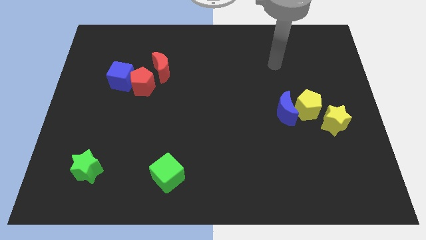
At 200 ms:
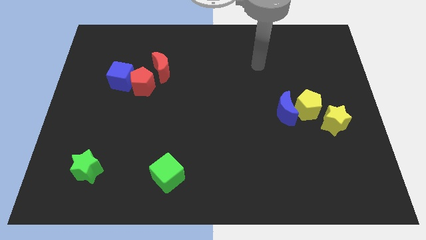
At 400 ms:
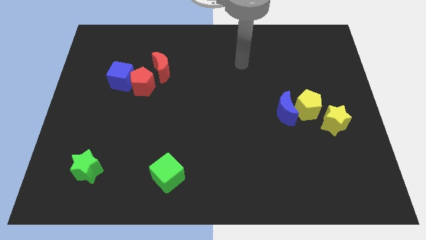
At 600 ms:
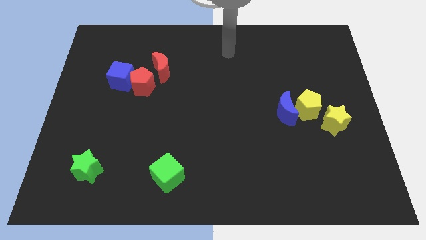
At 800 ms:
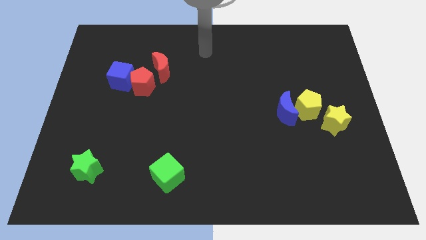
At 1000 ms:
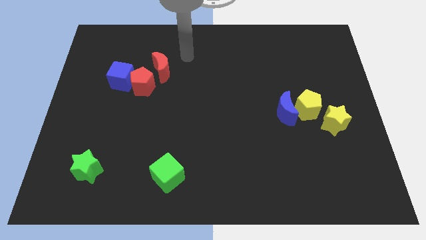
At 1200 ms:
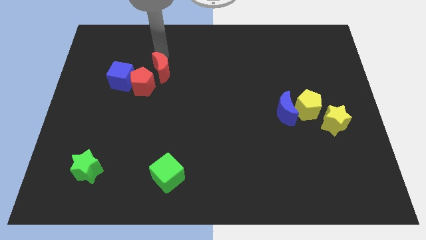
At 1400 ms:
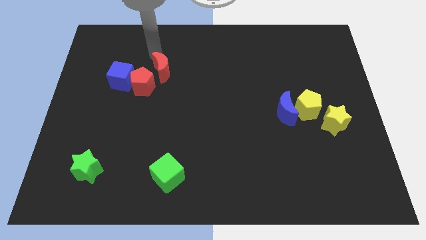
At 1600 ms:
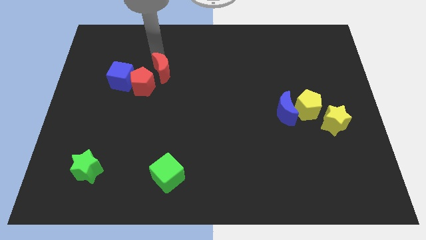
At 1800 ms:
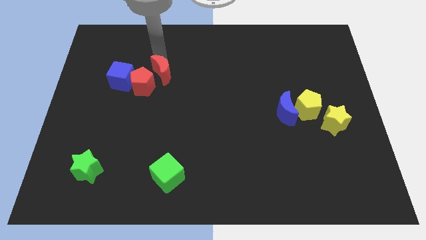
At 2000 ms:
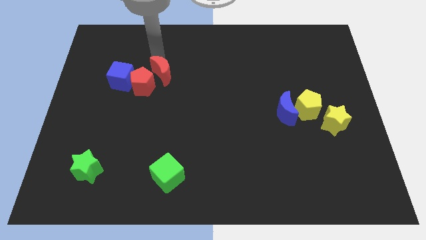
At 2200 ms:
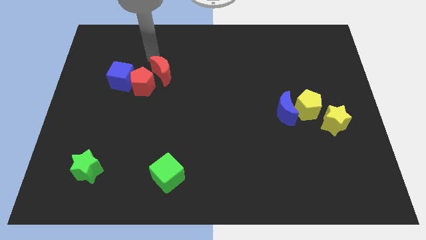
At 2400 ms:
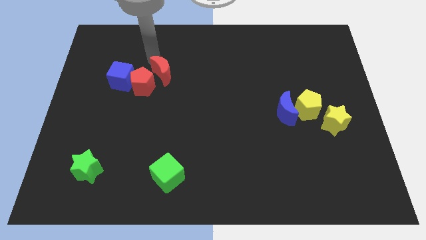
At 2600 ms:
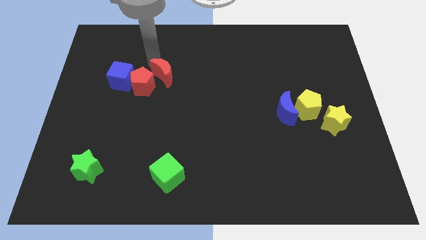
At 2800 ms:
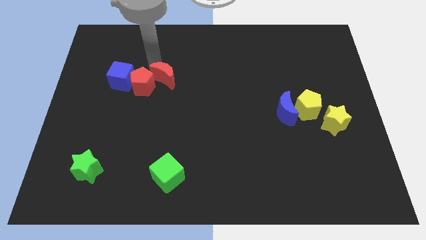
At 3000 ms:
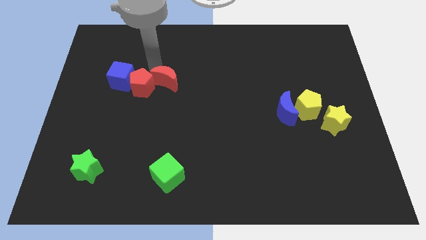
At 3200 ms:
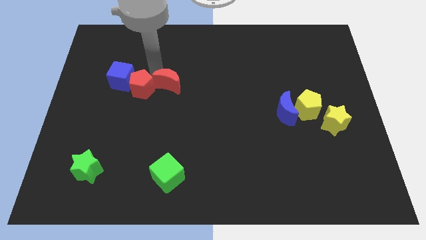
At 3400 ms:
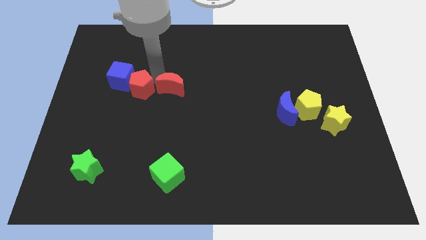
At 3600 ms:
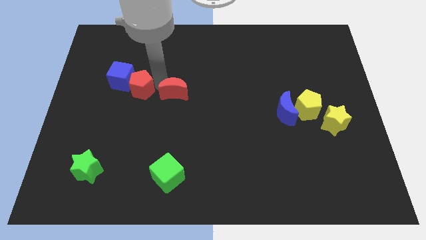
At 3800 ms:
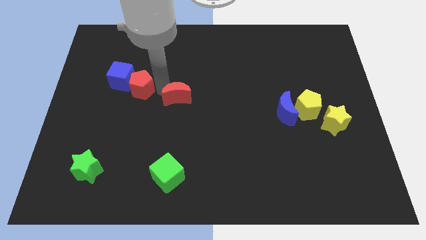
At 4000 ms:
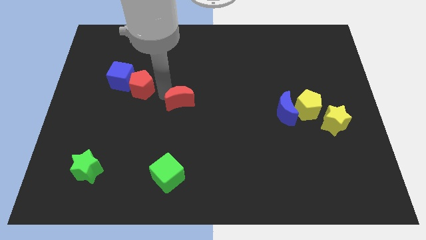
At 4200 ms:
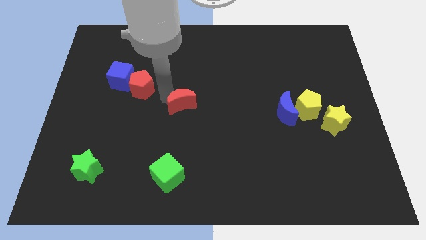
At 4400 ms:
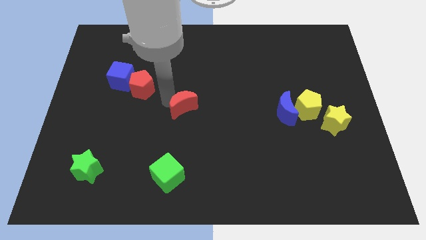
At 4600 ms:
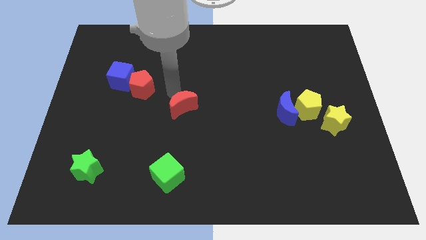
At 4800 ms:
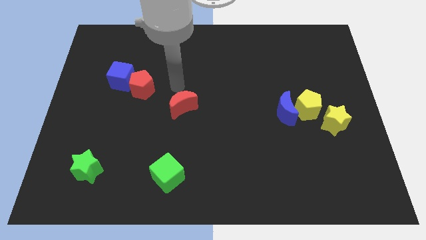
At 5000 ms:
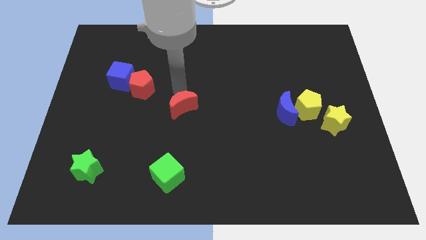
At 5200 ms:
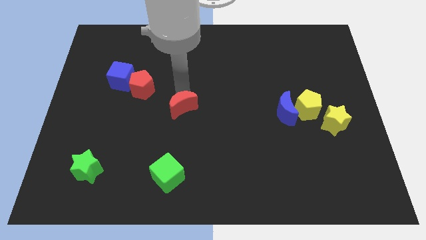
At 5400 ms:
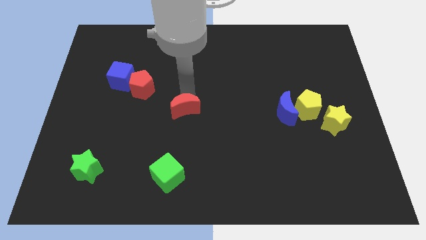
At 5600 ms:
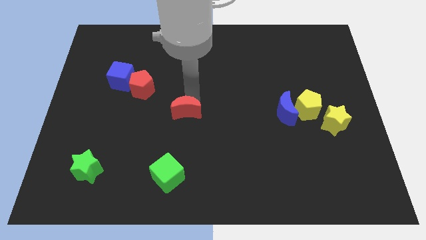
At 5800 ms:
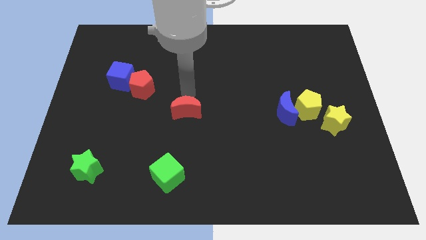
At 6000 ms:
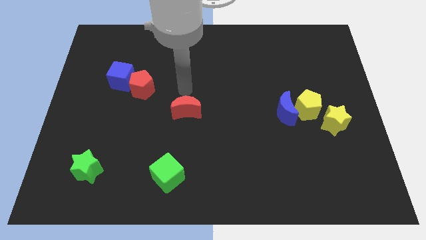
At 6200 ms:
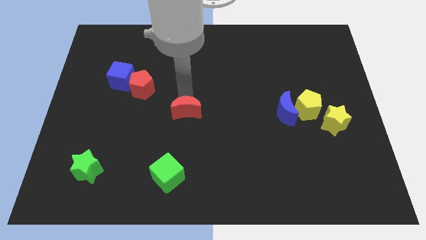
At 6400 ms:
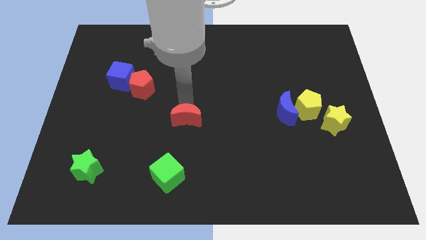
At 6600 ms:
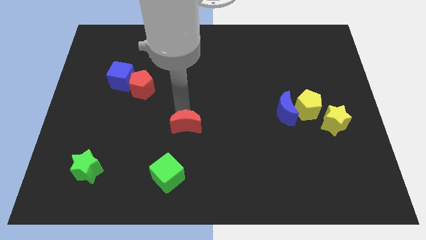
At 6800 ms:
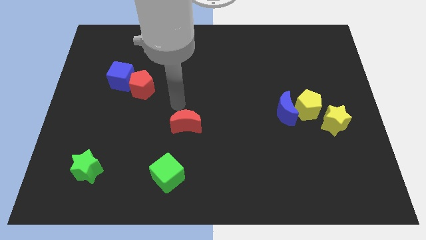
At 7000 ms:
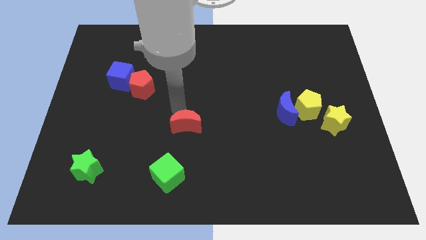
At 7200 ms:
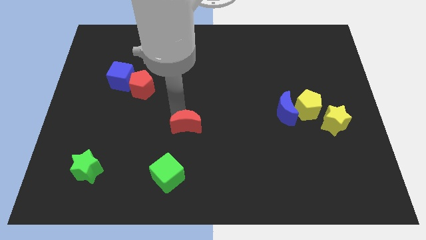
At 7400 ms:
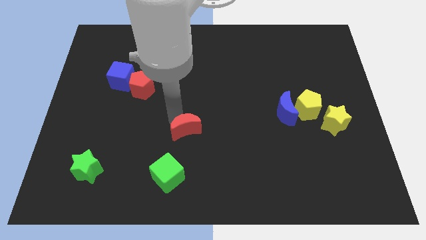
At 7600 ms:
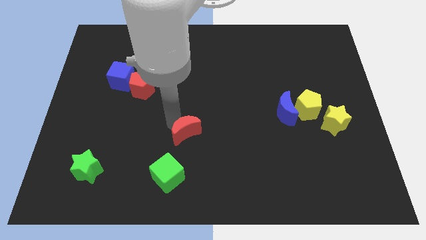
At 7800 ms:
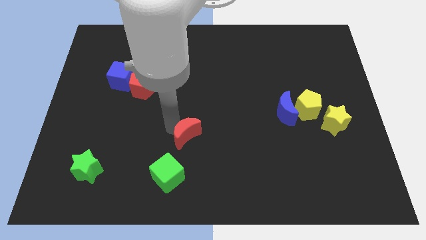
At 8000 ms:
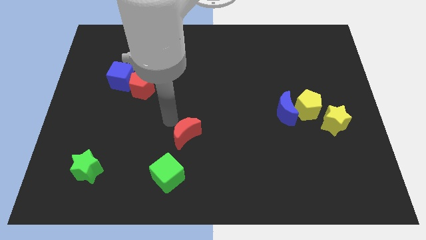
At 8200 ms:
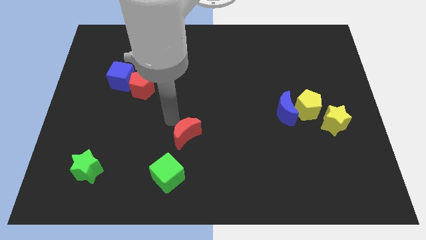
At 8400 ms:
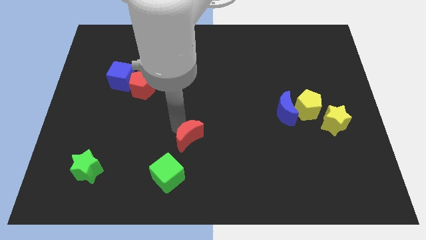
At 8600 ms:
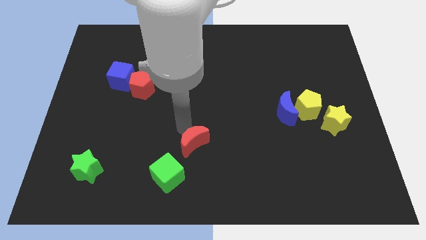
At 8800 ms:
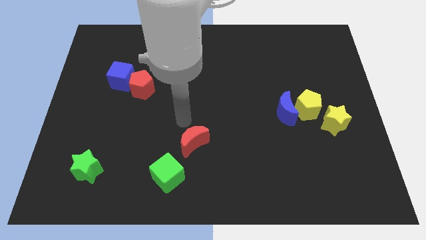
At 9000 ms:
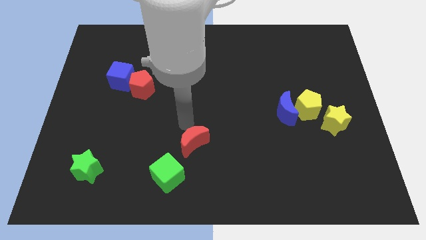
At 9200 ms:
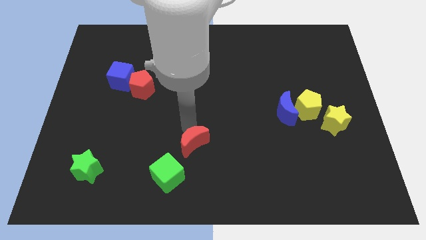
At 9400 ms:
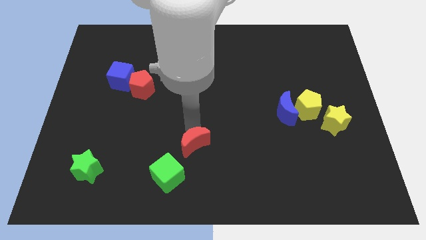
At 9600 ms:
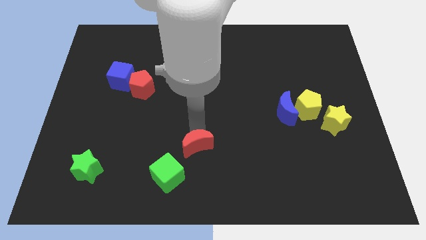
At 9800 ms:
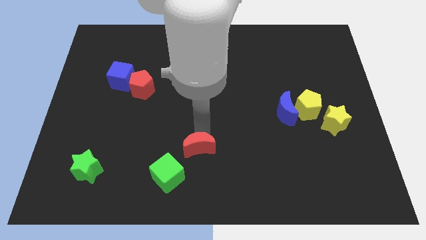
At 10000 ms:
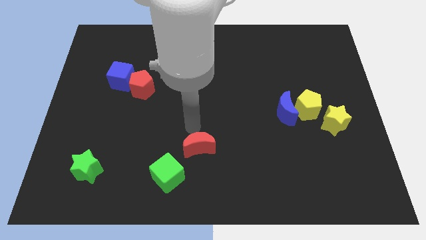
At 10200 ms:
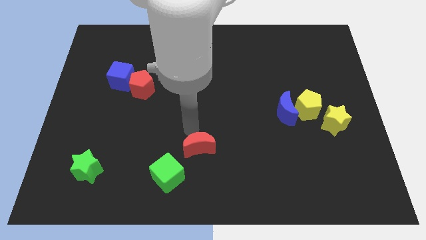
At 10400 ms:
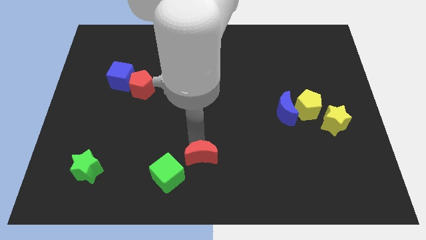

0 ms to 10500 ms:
push the red moon to the bottom

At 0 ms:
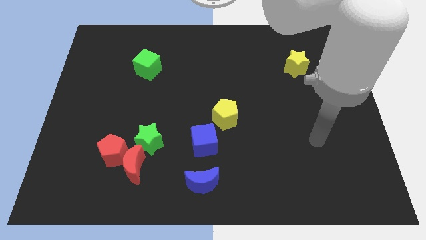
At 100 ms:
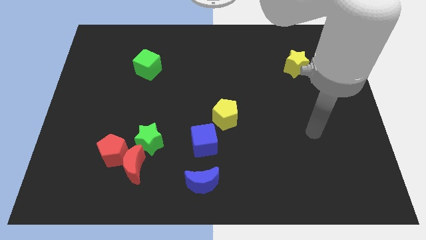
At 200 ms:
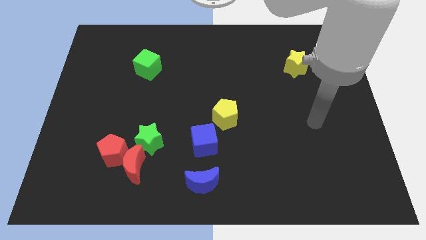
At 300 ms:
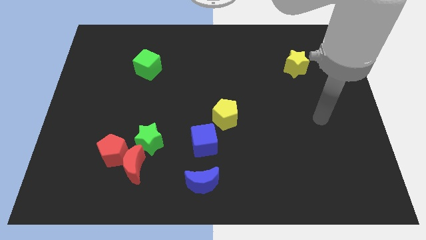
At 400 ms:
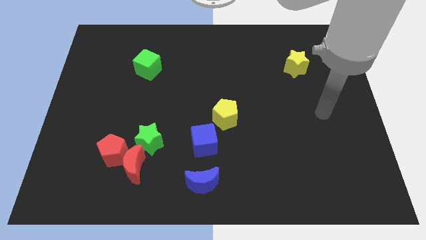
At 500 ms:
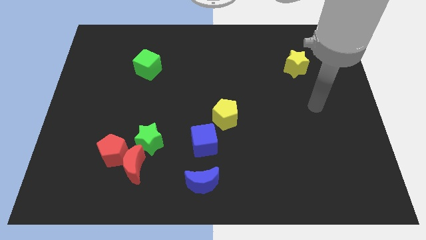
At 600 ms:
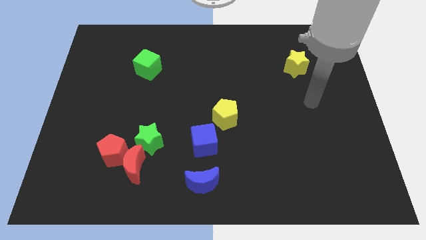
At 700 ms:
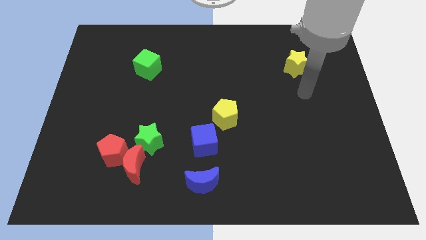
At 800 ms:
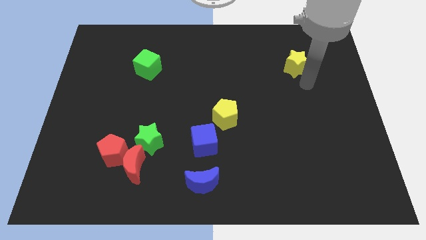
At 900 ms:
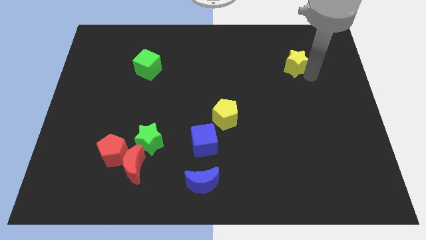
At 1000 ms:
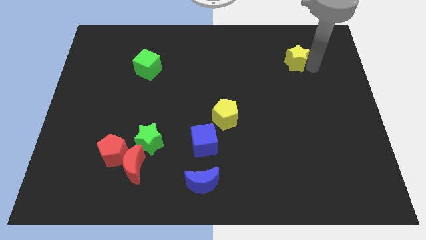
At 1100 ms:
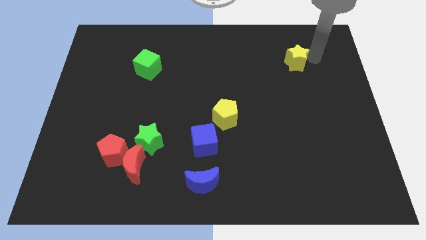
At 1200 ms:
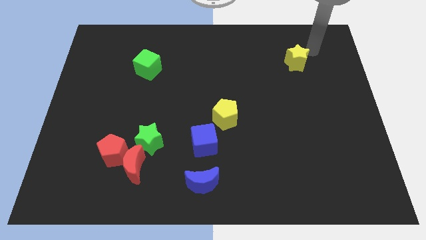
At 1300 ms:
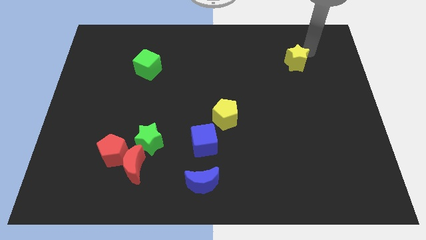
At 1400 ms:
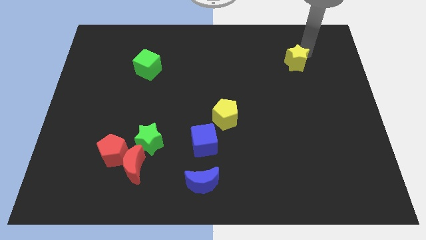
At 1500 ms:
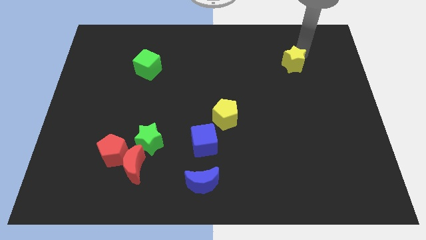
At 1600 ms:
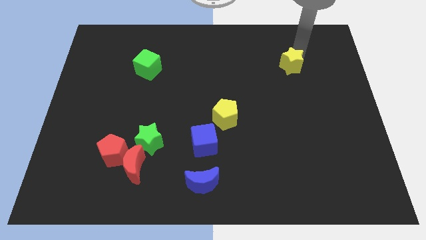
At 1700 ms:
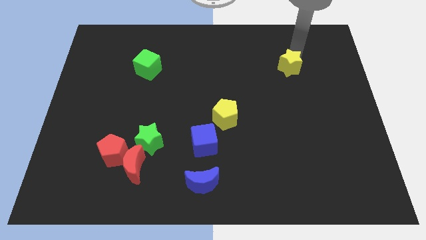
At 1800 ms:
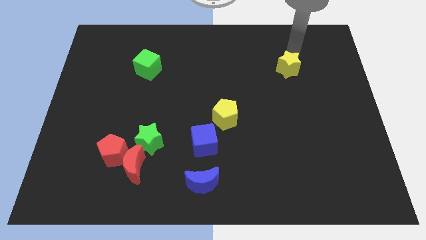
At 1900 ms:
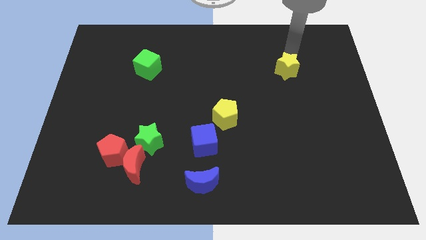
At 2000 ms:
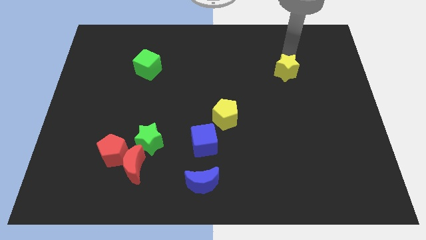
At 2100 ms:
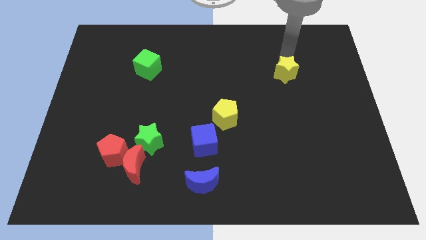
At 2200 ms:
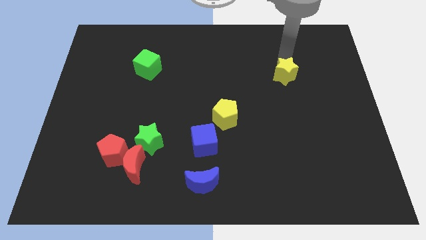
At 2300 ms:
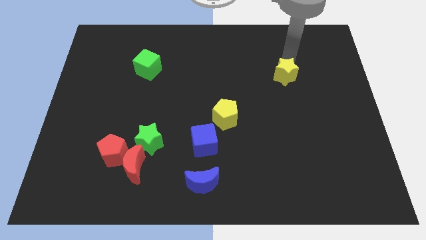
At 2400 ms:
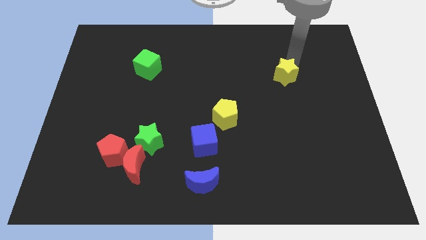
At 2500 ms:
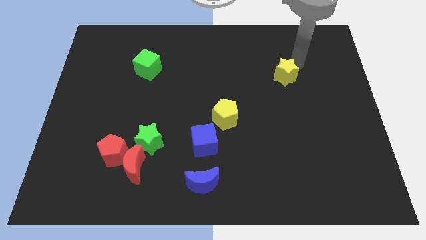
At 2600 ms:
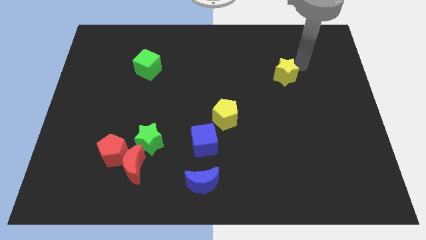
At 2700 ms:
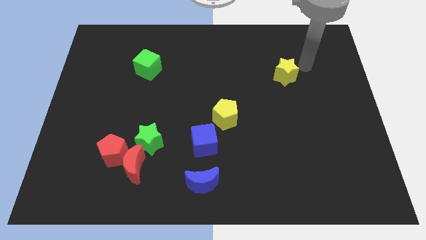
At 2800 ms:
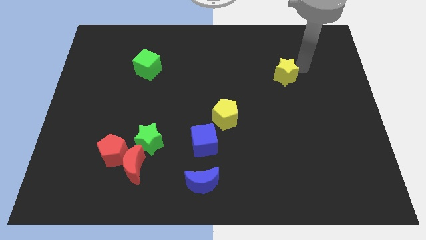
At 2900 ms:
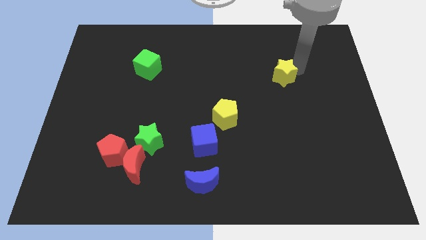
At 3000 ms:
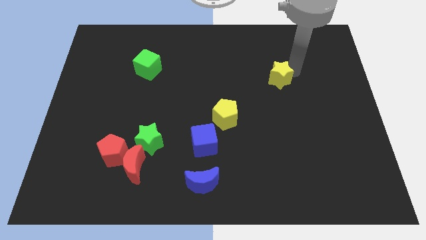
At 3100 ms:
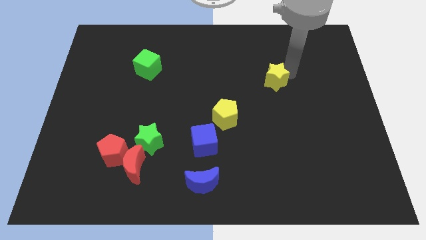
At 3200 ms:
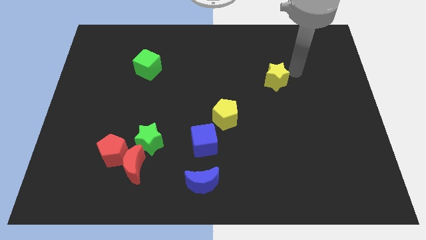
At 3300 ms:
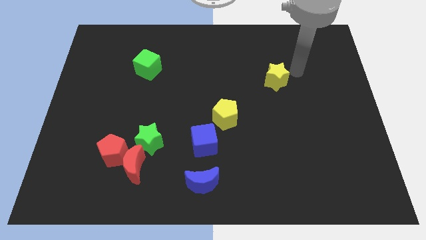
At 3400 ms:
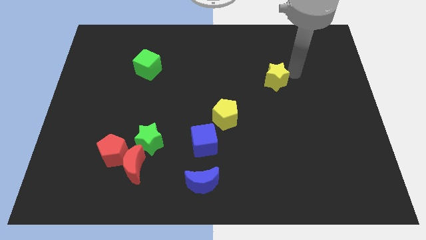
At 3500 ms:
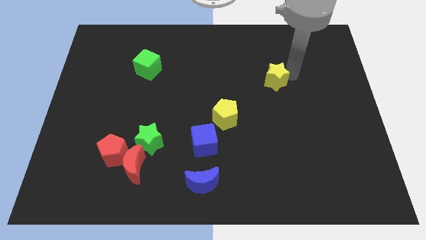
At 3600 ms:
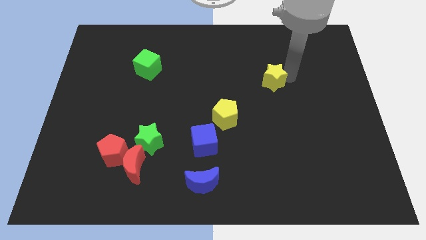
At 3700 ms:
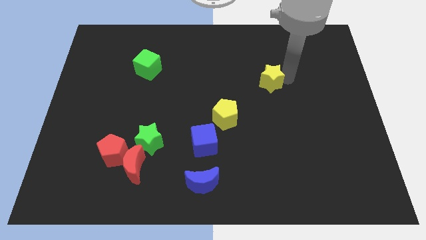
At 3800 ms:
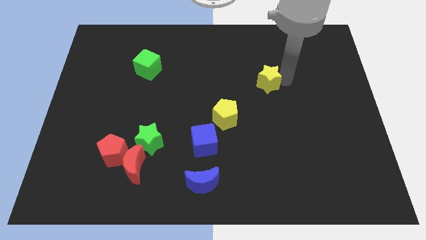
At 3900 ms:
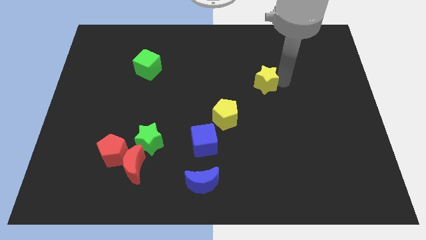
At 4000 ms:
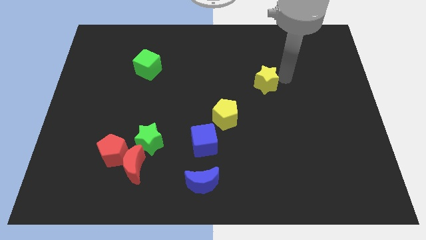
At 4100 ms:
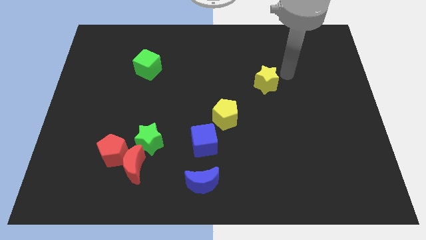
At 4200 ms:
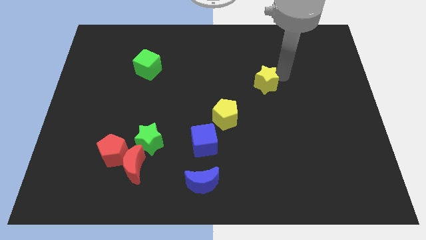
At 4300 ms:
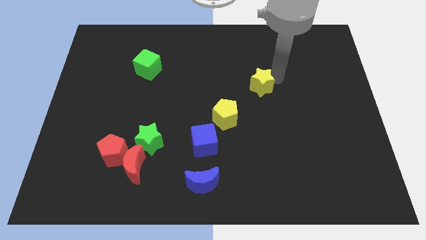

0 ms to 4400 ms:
push the yellow star to the middle of the board
